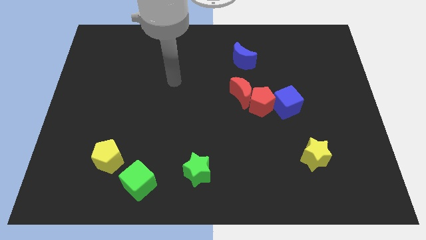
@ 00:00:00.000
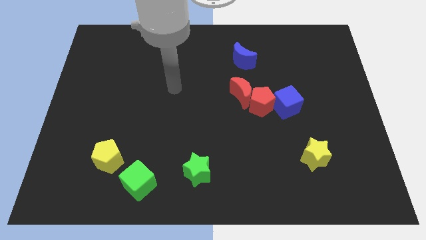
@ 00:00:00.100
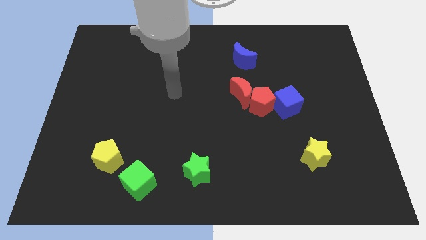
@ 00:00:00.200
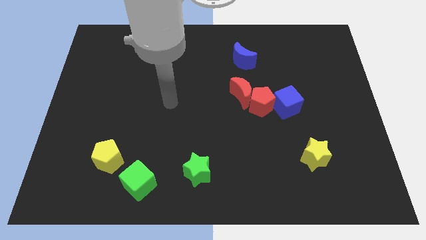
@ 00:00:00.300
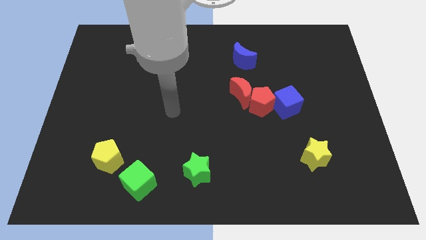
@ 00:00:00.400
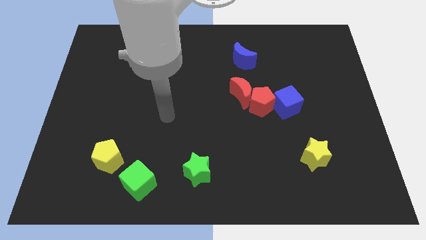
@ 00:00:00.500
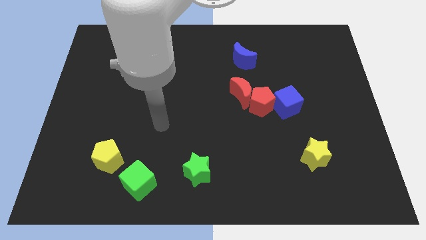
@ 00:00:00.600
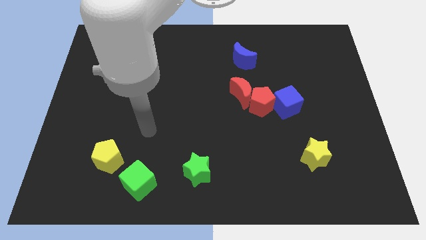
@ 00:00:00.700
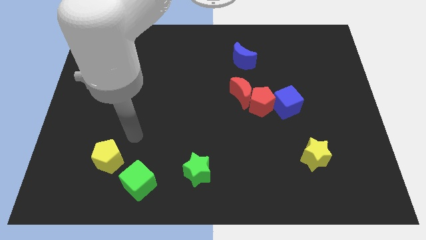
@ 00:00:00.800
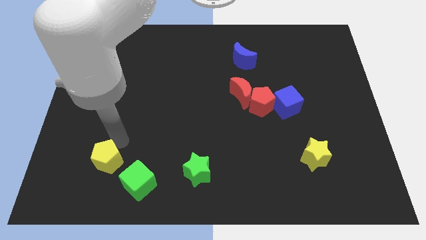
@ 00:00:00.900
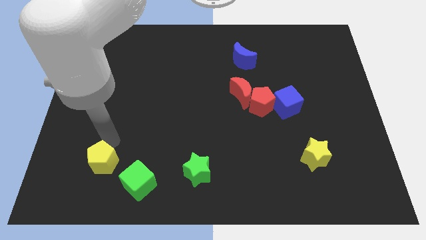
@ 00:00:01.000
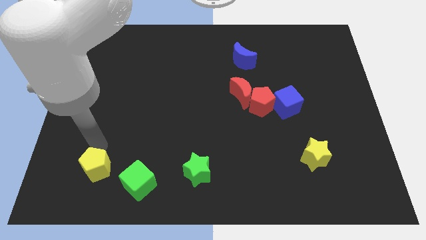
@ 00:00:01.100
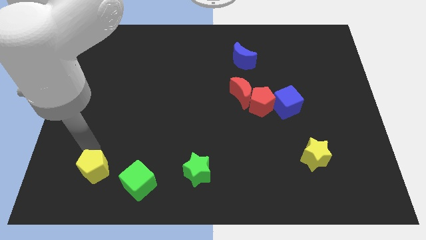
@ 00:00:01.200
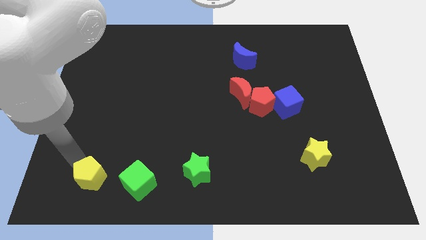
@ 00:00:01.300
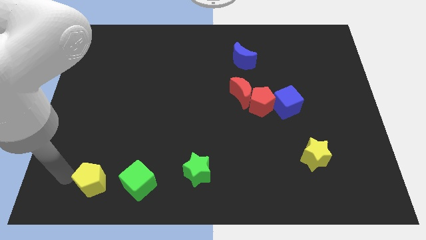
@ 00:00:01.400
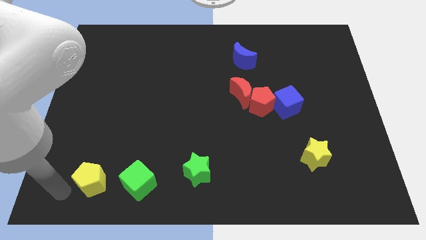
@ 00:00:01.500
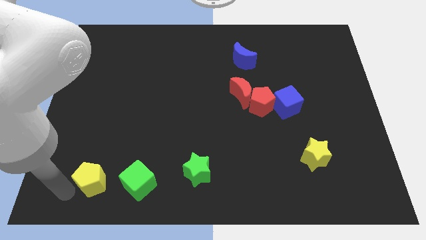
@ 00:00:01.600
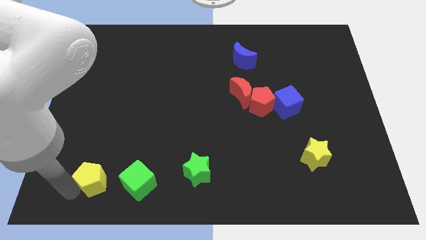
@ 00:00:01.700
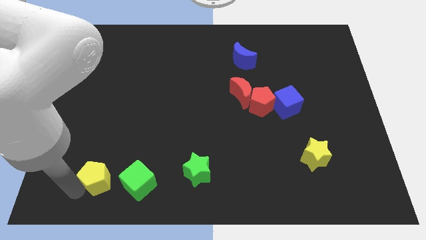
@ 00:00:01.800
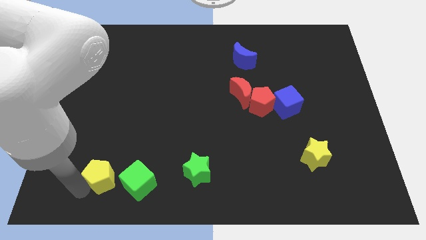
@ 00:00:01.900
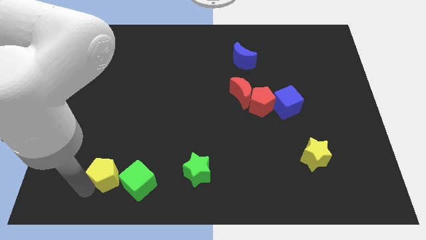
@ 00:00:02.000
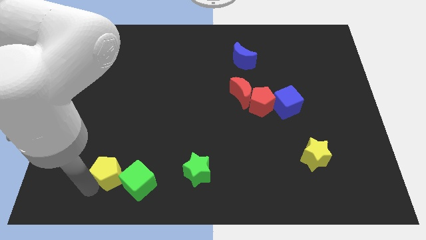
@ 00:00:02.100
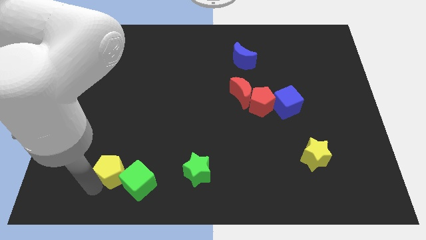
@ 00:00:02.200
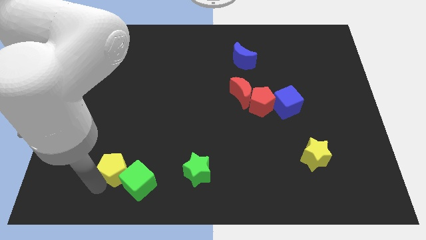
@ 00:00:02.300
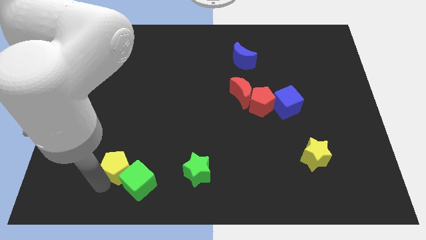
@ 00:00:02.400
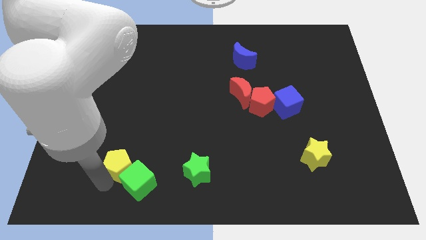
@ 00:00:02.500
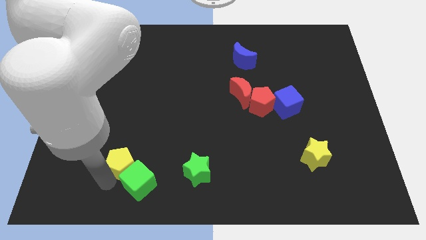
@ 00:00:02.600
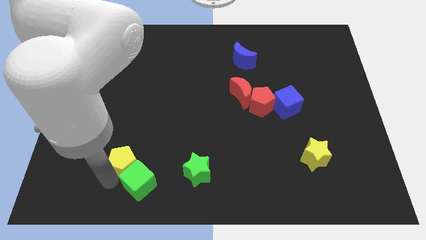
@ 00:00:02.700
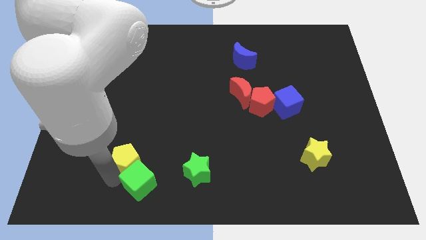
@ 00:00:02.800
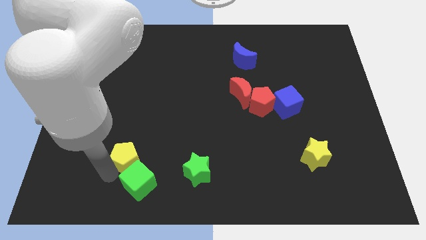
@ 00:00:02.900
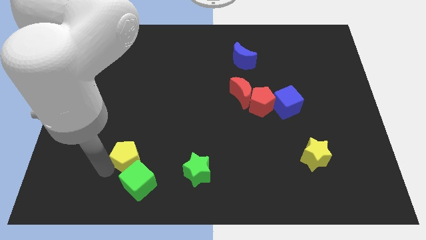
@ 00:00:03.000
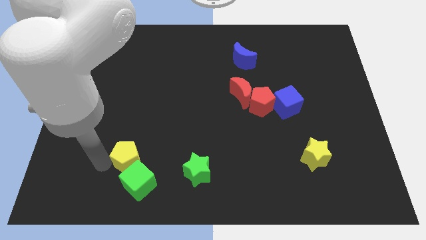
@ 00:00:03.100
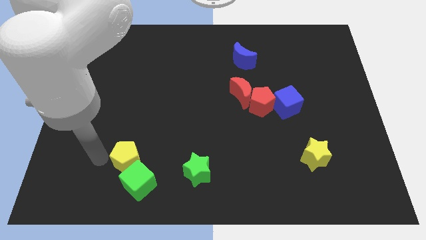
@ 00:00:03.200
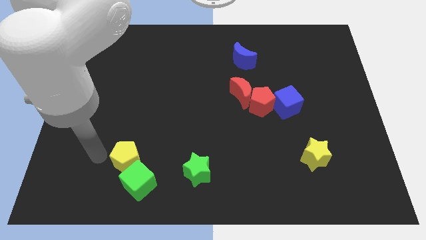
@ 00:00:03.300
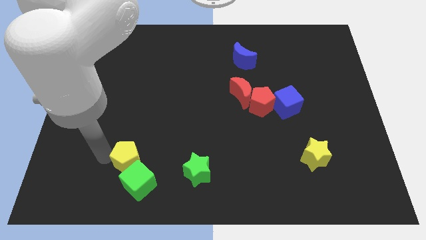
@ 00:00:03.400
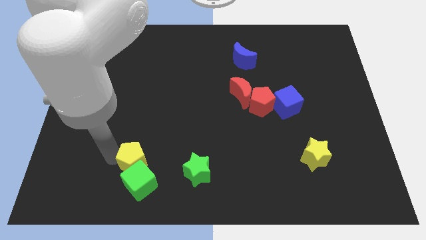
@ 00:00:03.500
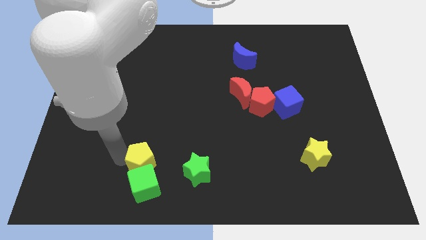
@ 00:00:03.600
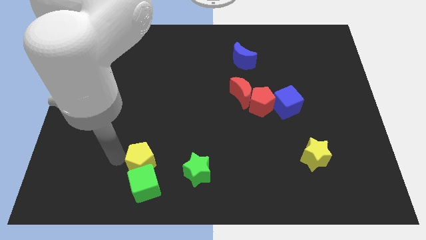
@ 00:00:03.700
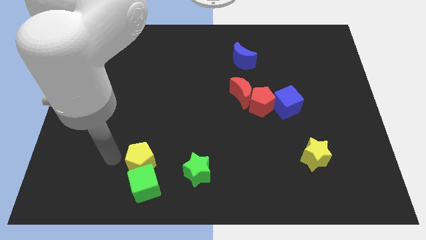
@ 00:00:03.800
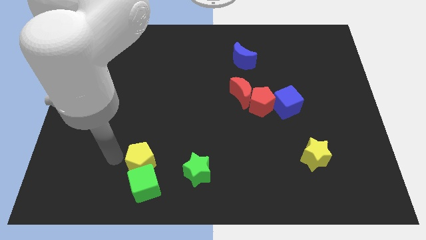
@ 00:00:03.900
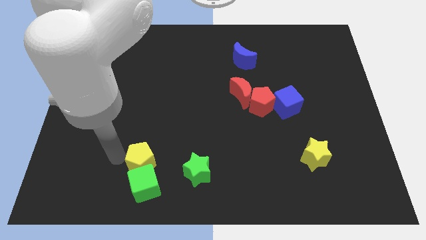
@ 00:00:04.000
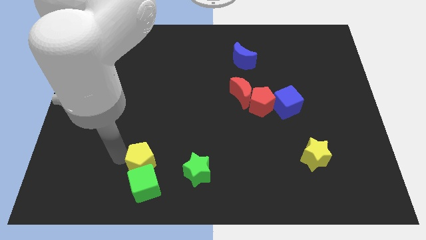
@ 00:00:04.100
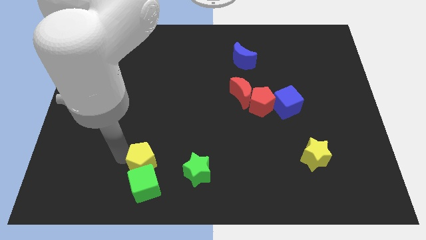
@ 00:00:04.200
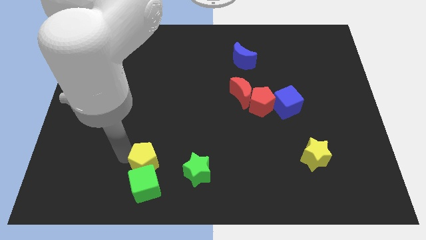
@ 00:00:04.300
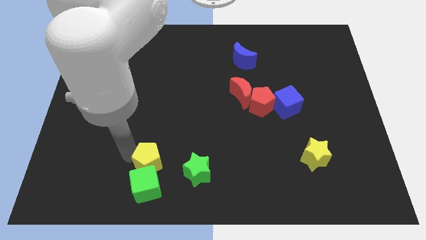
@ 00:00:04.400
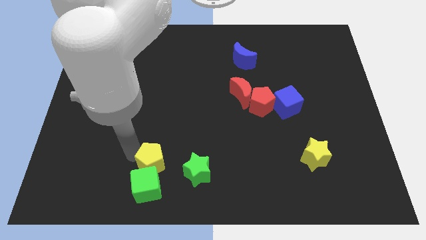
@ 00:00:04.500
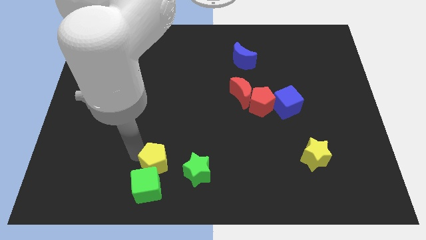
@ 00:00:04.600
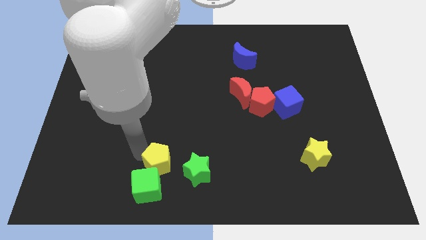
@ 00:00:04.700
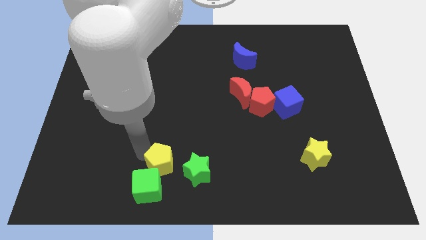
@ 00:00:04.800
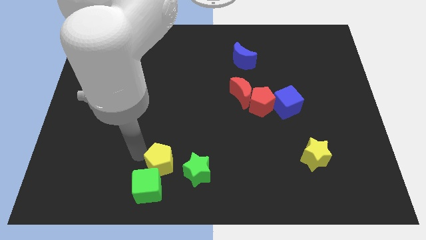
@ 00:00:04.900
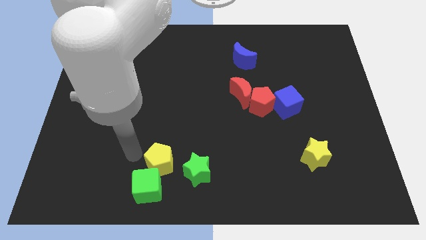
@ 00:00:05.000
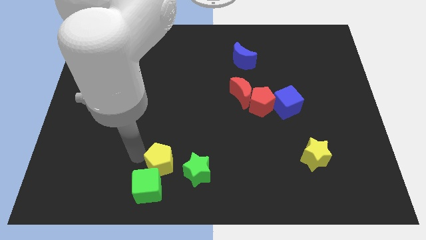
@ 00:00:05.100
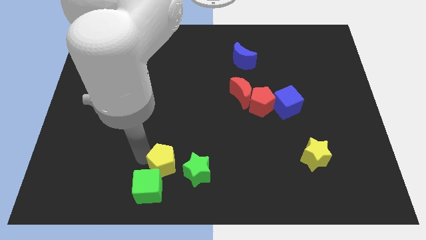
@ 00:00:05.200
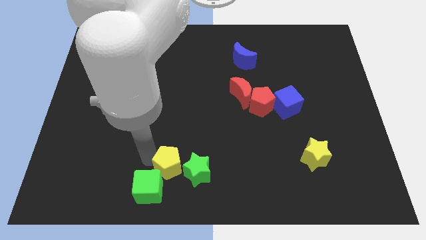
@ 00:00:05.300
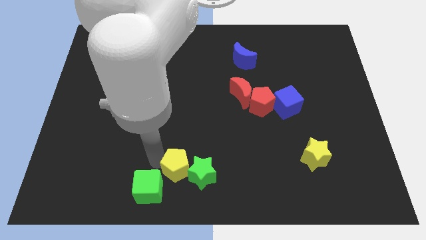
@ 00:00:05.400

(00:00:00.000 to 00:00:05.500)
slide the yellow pentagon to the green star

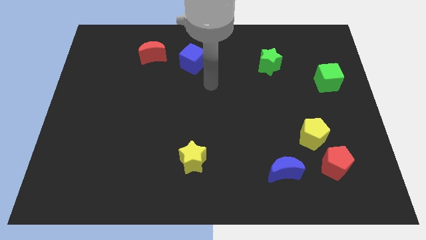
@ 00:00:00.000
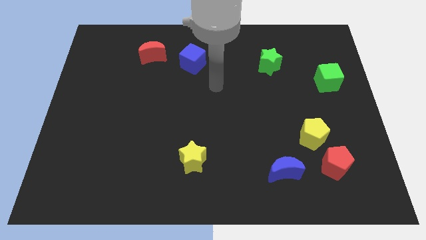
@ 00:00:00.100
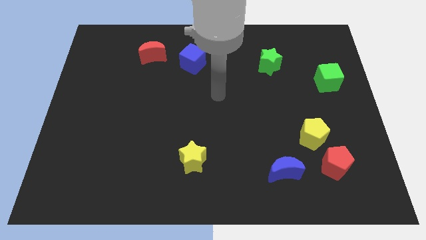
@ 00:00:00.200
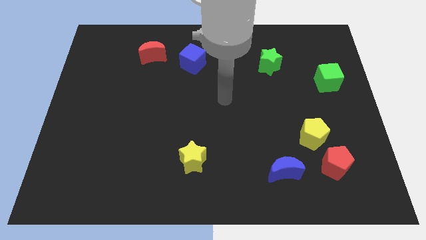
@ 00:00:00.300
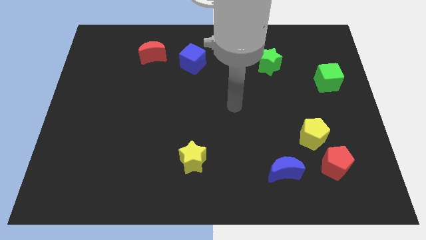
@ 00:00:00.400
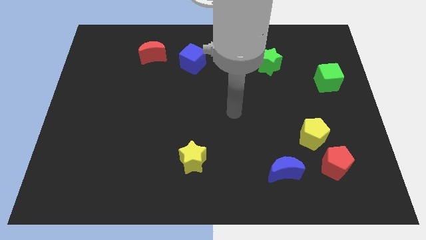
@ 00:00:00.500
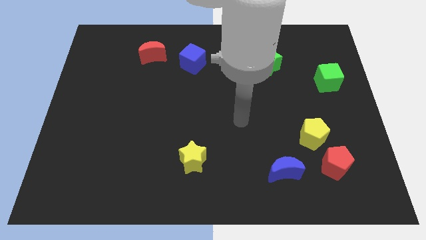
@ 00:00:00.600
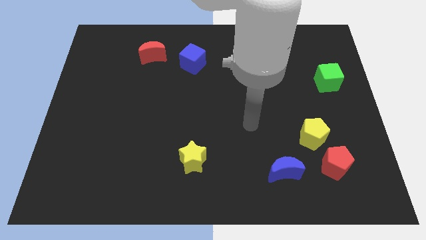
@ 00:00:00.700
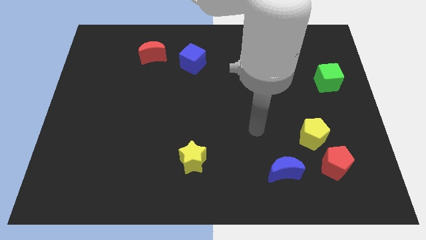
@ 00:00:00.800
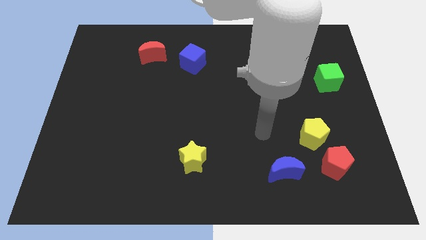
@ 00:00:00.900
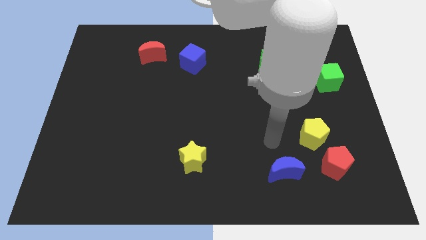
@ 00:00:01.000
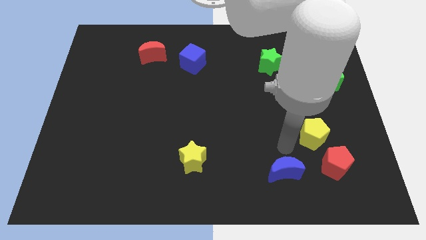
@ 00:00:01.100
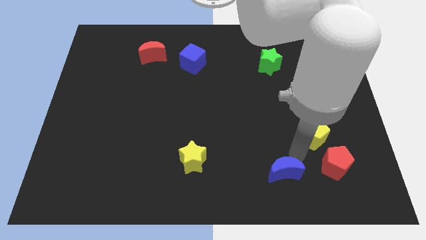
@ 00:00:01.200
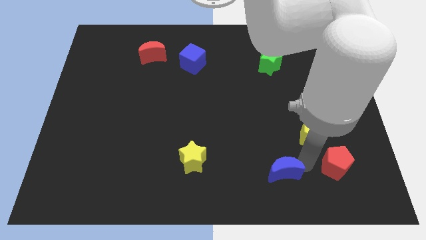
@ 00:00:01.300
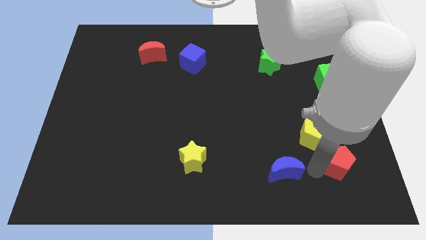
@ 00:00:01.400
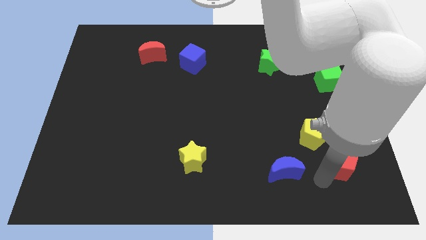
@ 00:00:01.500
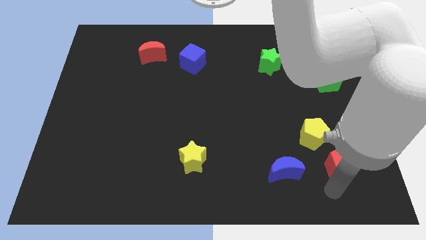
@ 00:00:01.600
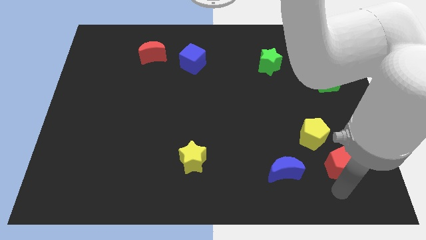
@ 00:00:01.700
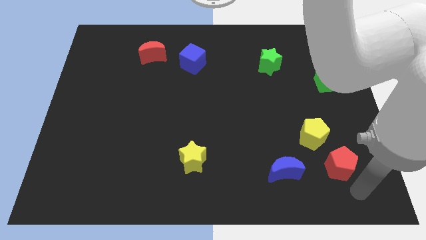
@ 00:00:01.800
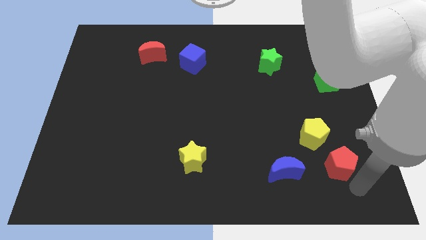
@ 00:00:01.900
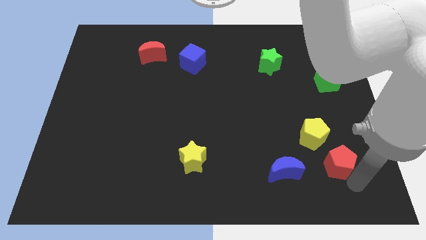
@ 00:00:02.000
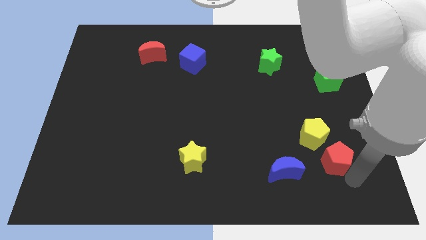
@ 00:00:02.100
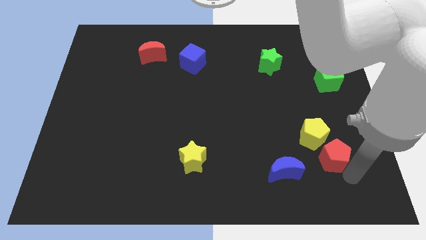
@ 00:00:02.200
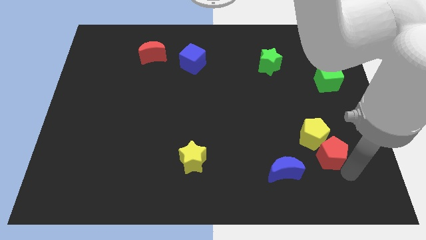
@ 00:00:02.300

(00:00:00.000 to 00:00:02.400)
slide the red pentagon to the yellow pentagon
